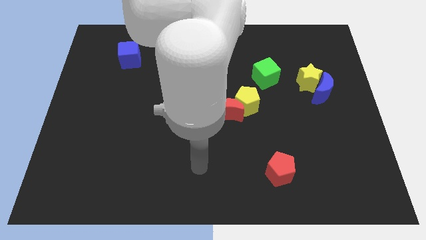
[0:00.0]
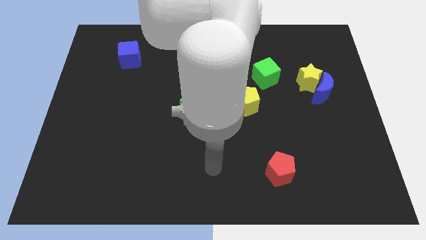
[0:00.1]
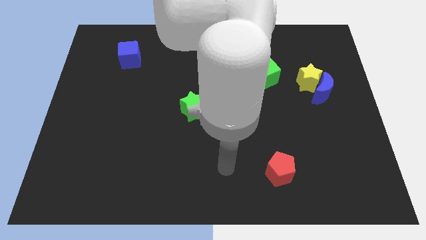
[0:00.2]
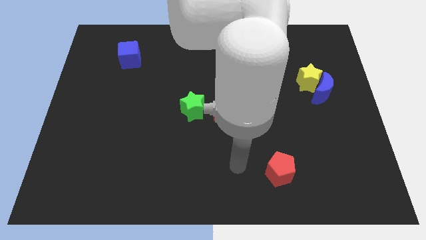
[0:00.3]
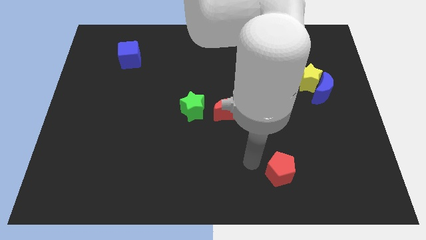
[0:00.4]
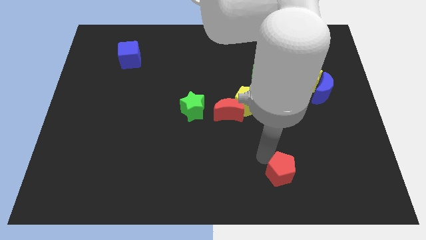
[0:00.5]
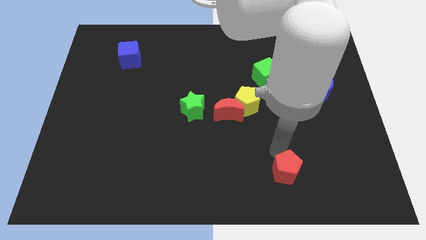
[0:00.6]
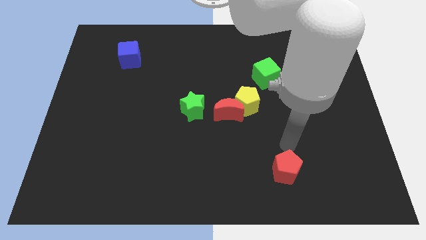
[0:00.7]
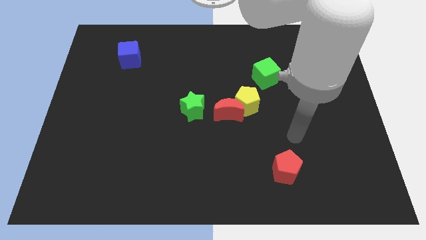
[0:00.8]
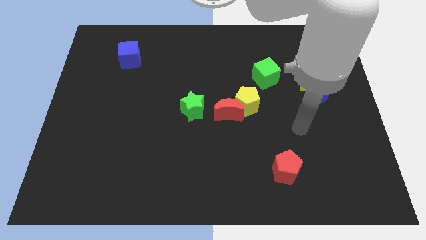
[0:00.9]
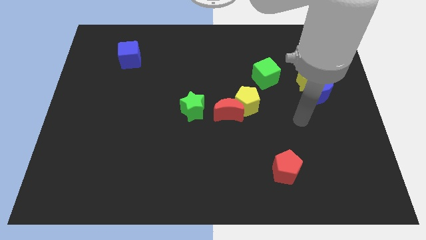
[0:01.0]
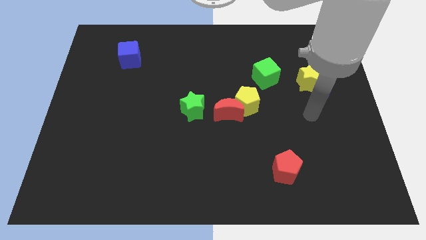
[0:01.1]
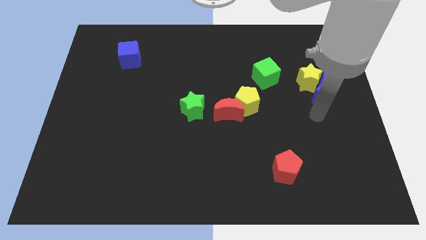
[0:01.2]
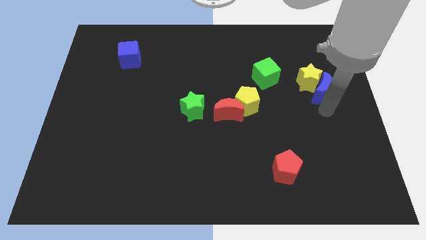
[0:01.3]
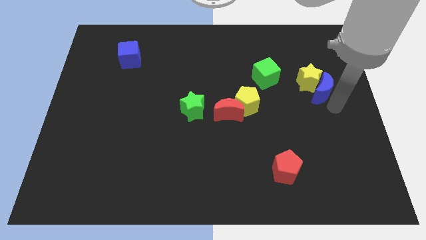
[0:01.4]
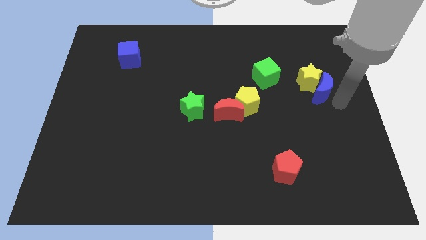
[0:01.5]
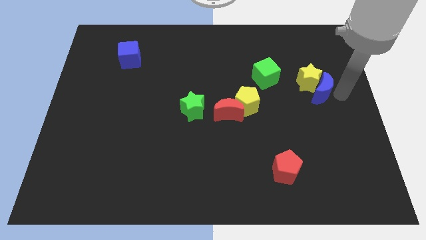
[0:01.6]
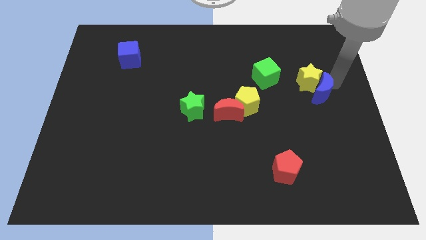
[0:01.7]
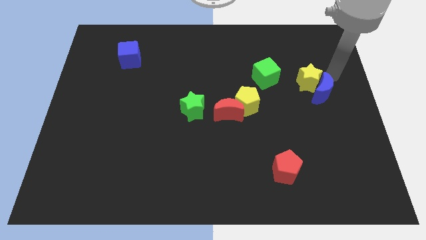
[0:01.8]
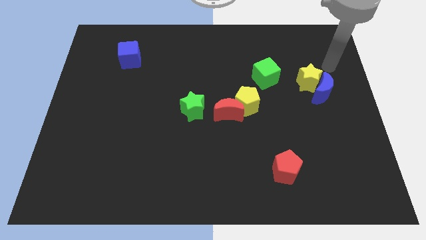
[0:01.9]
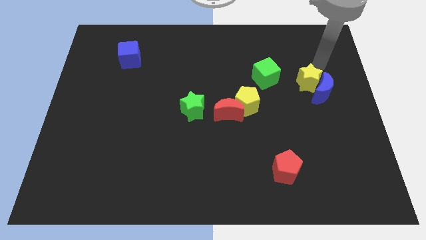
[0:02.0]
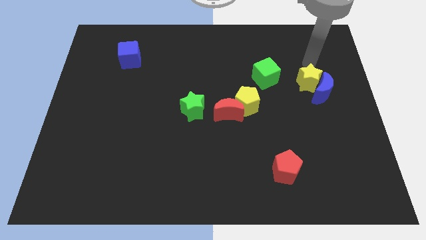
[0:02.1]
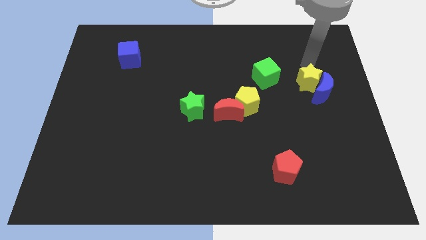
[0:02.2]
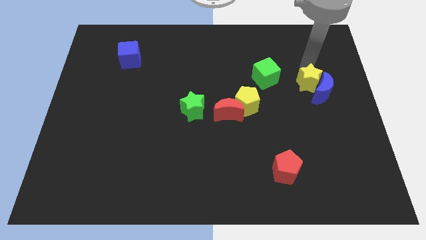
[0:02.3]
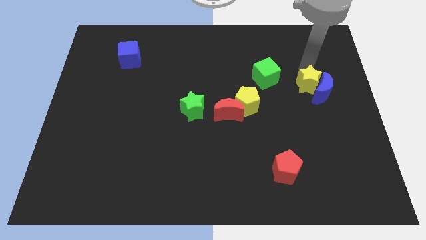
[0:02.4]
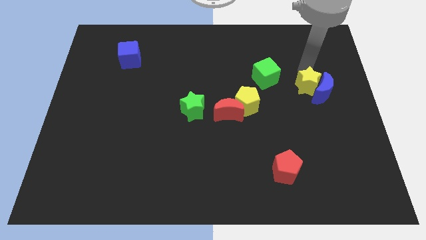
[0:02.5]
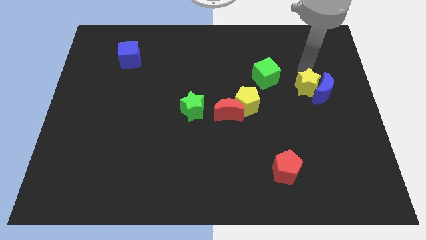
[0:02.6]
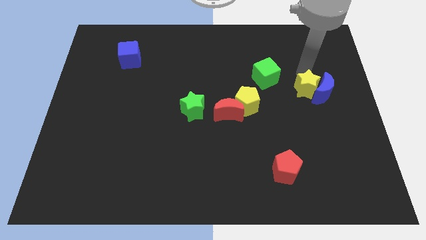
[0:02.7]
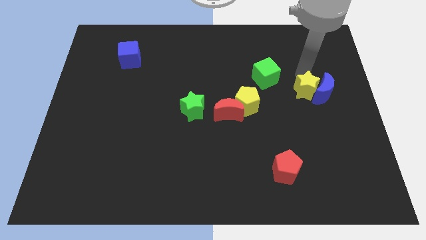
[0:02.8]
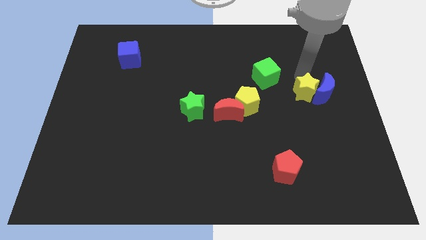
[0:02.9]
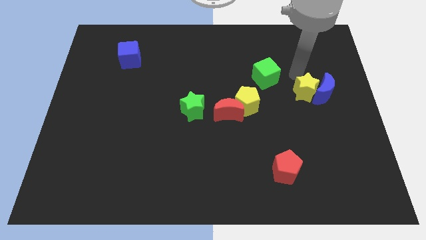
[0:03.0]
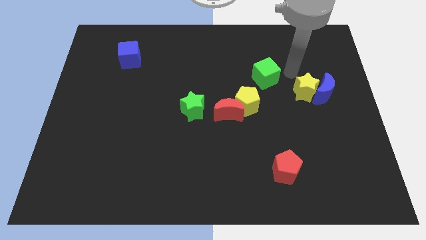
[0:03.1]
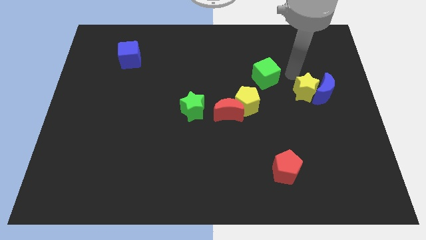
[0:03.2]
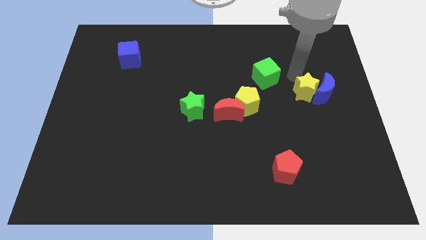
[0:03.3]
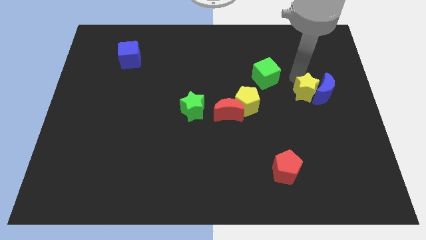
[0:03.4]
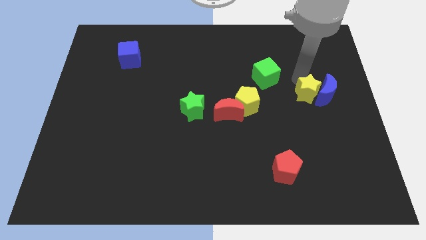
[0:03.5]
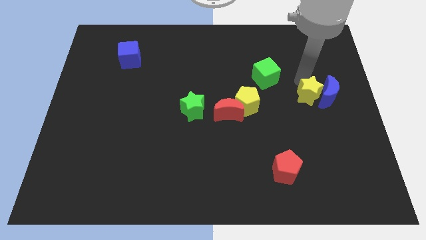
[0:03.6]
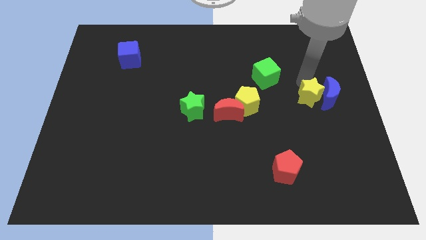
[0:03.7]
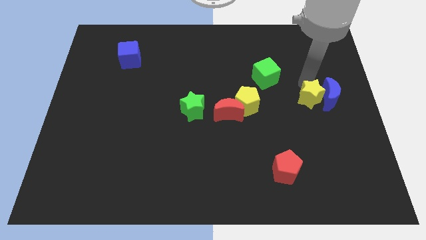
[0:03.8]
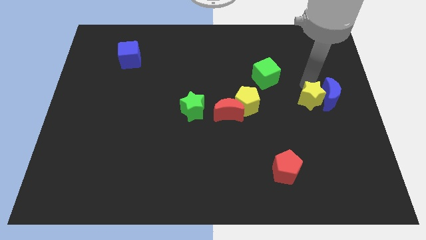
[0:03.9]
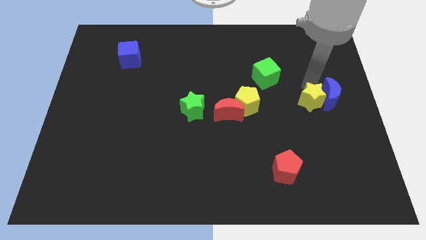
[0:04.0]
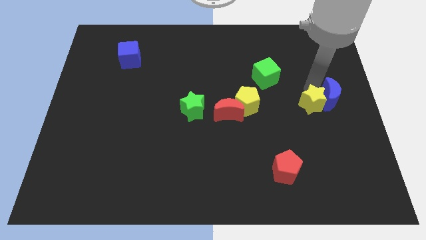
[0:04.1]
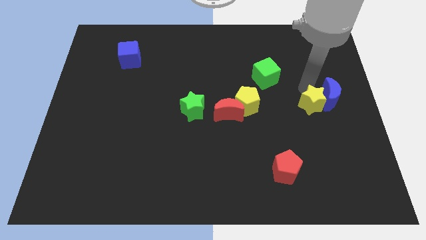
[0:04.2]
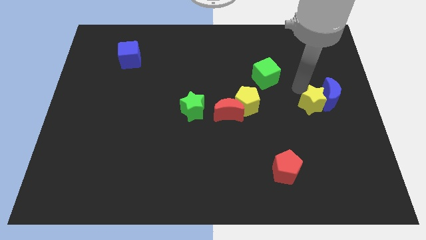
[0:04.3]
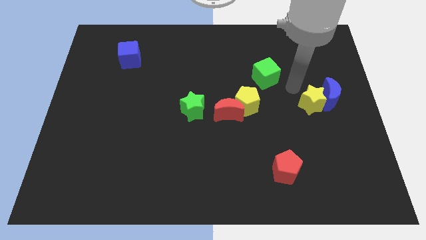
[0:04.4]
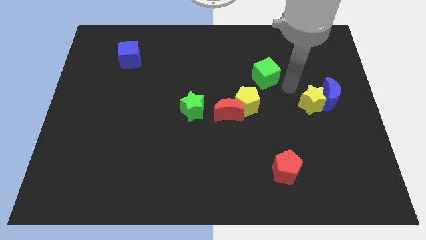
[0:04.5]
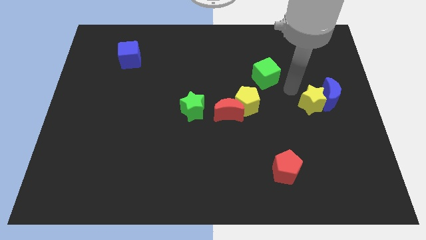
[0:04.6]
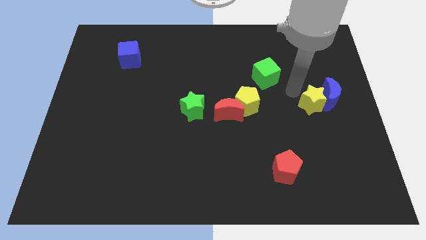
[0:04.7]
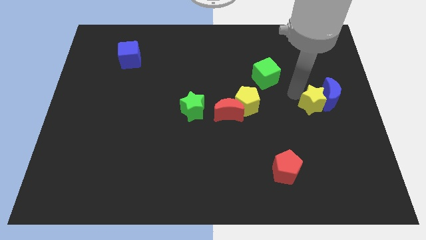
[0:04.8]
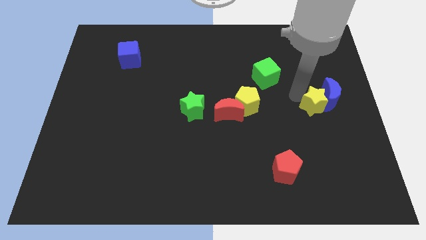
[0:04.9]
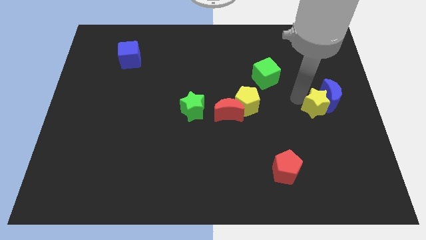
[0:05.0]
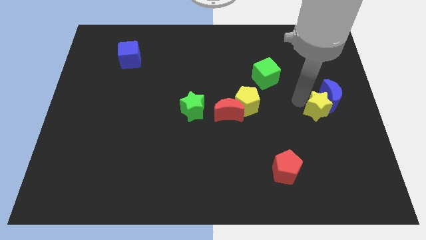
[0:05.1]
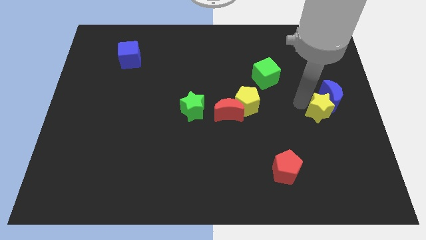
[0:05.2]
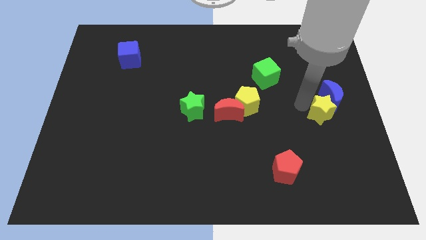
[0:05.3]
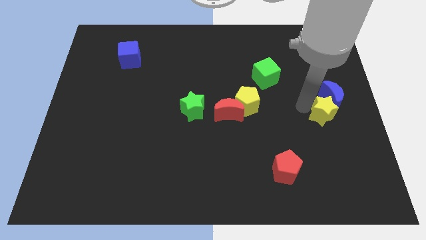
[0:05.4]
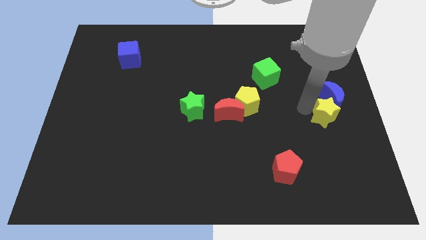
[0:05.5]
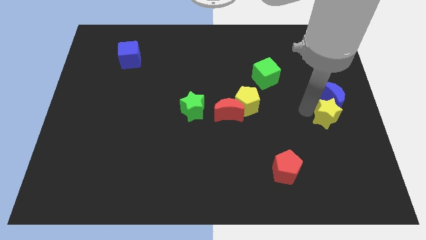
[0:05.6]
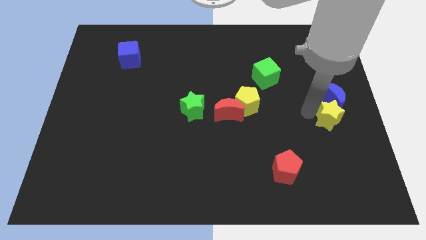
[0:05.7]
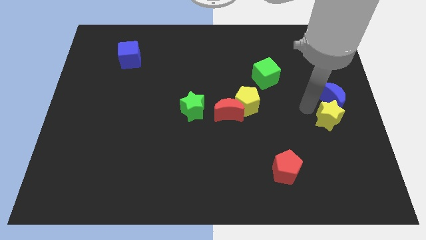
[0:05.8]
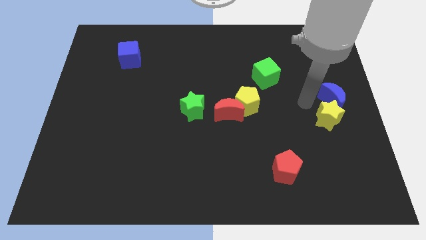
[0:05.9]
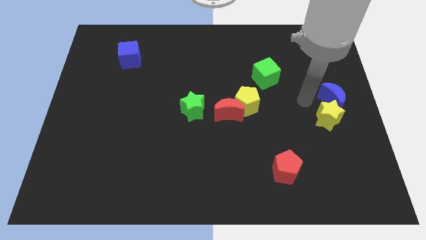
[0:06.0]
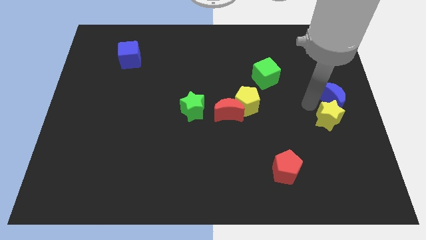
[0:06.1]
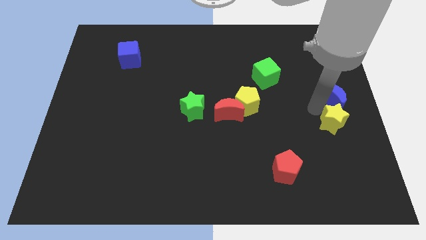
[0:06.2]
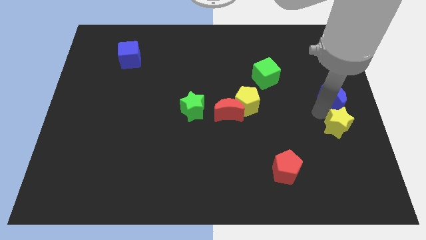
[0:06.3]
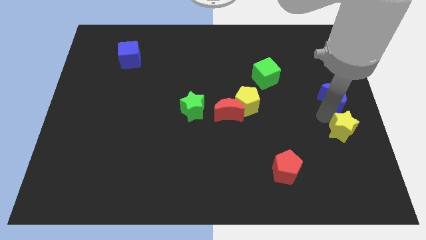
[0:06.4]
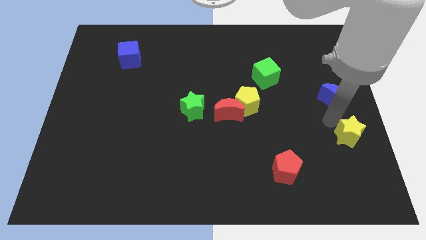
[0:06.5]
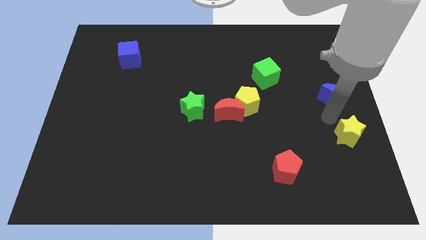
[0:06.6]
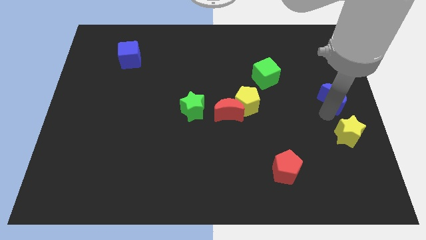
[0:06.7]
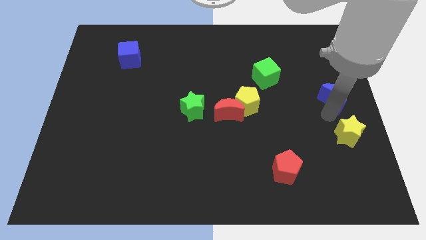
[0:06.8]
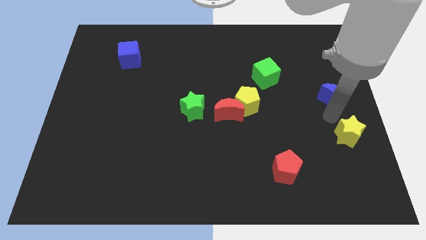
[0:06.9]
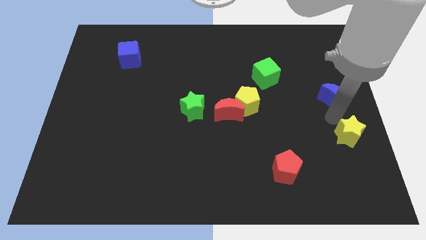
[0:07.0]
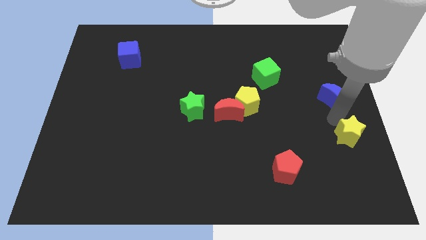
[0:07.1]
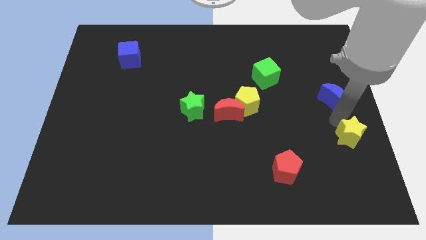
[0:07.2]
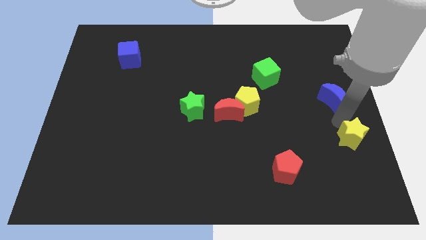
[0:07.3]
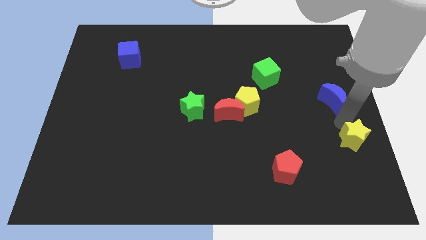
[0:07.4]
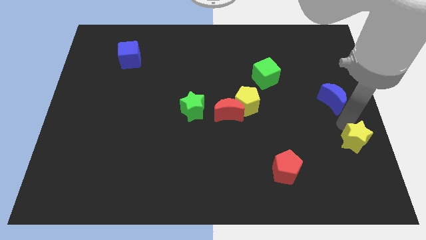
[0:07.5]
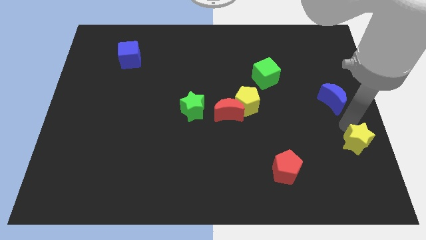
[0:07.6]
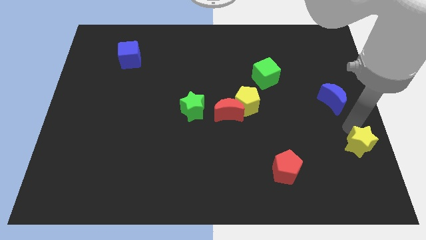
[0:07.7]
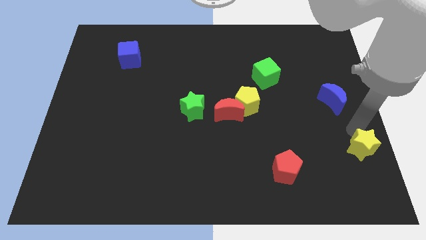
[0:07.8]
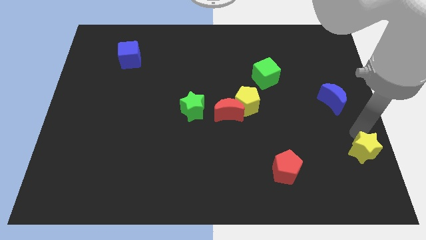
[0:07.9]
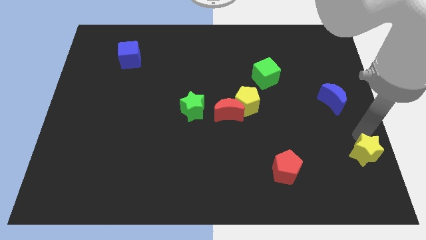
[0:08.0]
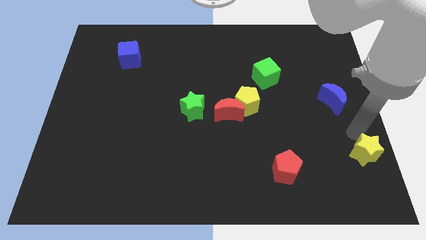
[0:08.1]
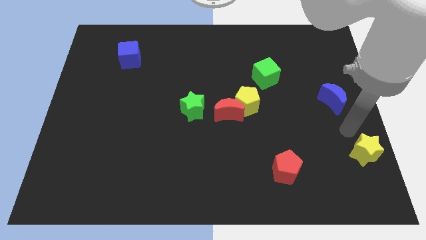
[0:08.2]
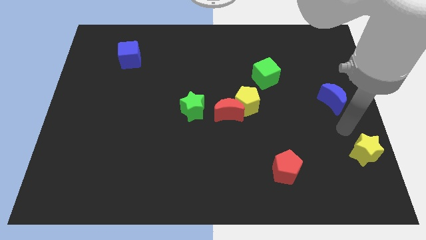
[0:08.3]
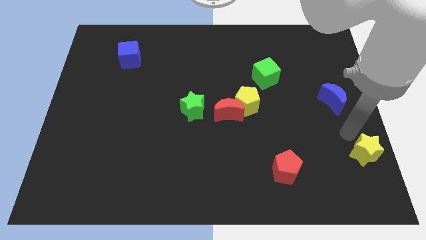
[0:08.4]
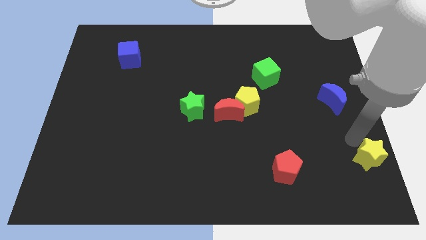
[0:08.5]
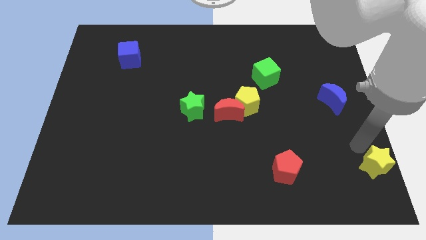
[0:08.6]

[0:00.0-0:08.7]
put the yellow star to the bottom right
